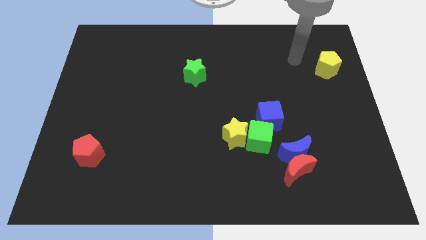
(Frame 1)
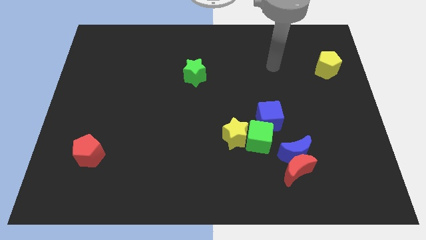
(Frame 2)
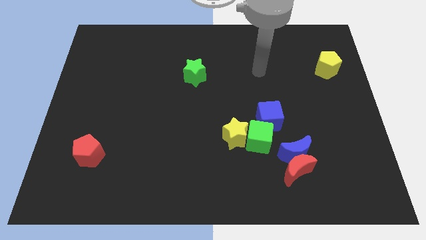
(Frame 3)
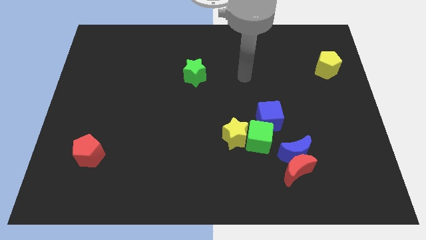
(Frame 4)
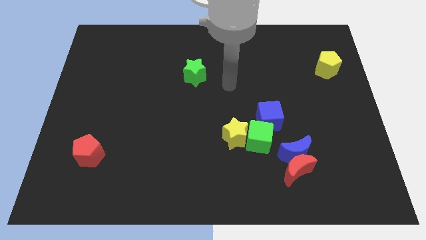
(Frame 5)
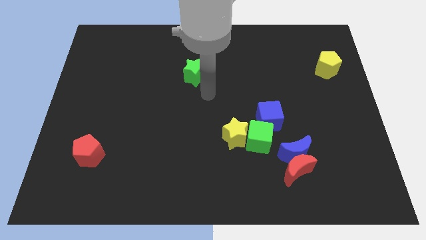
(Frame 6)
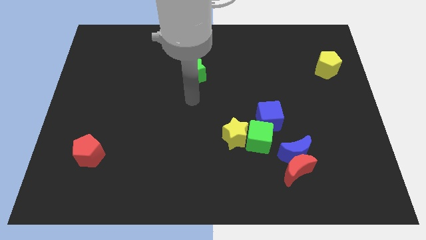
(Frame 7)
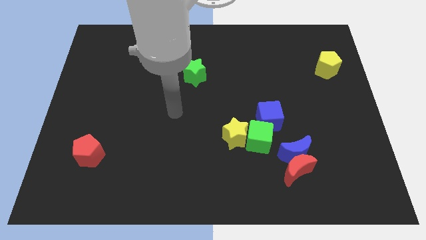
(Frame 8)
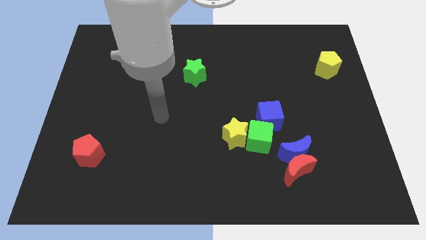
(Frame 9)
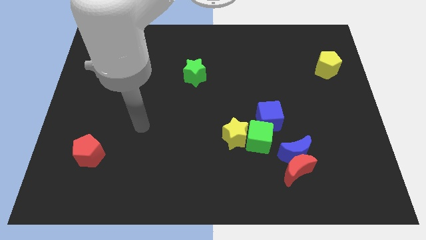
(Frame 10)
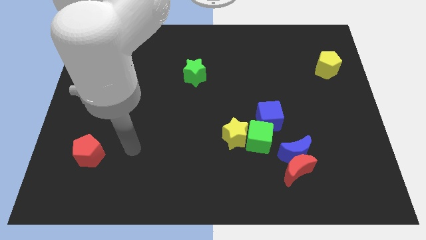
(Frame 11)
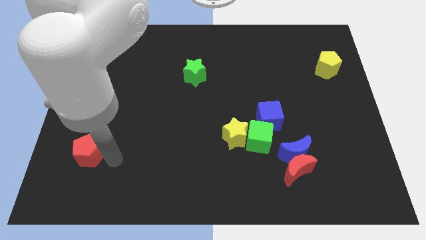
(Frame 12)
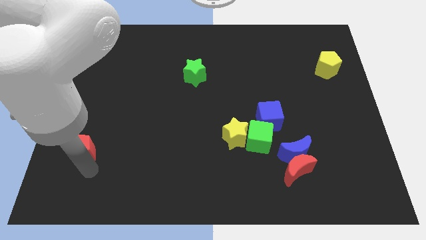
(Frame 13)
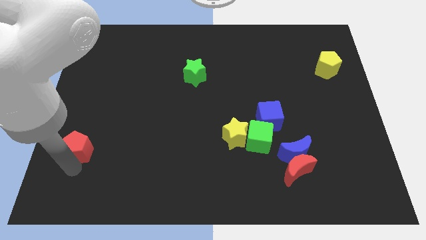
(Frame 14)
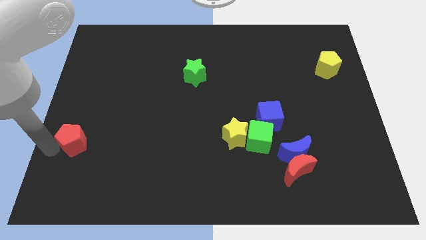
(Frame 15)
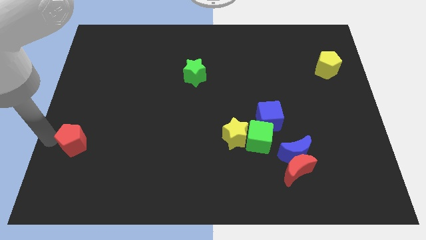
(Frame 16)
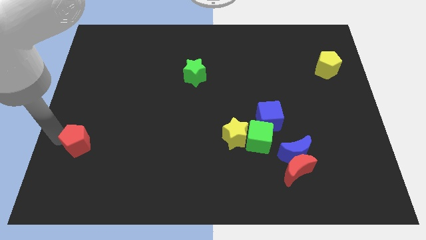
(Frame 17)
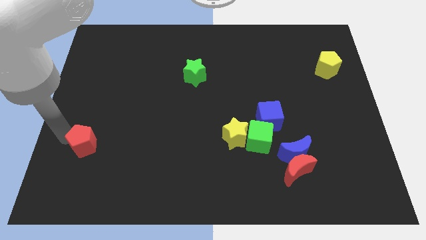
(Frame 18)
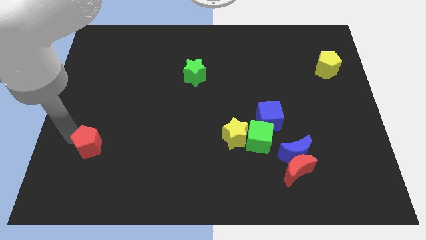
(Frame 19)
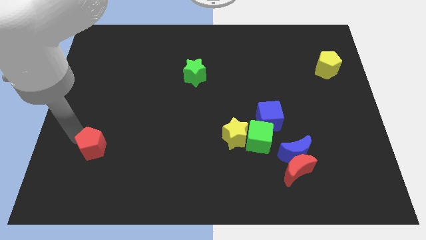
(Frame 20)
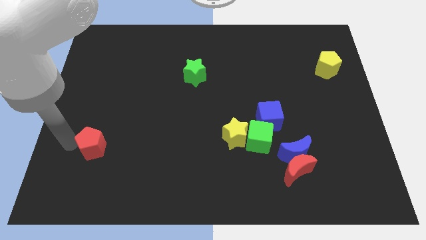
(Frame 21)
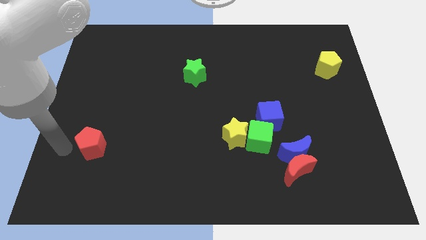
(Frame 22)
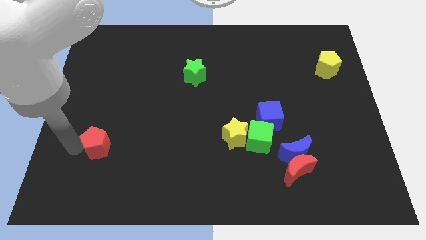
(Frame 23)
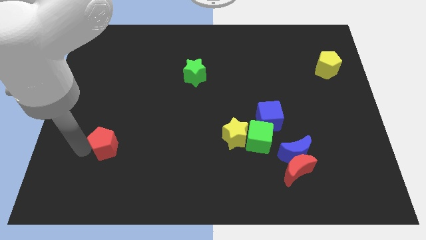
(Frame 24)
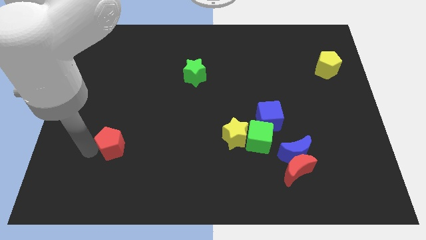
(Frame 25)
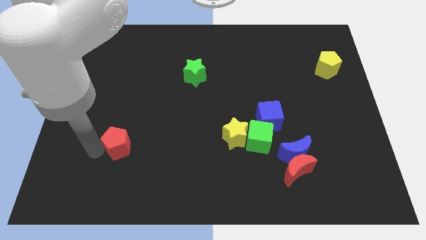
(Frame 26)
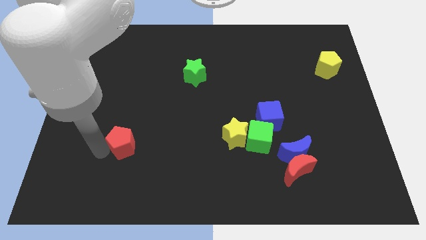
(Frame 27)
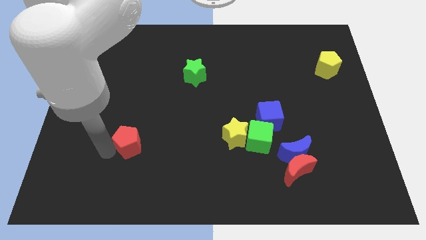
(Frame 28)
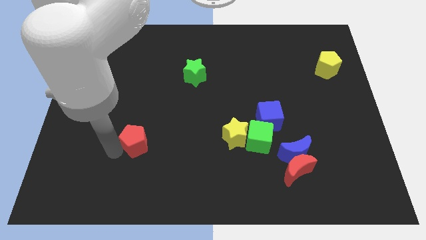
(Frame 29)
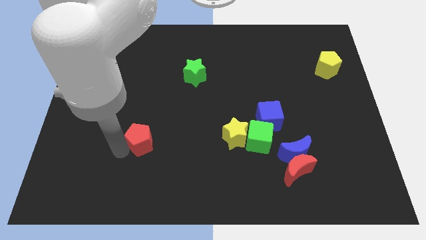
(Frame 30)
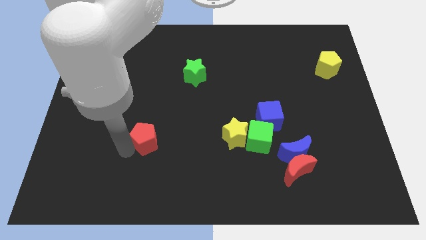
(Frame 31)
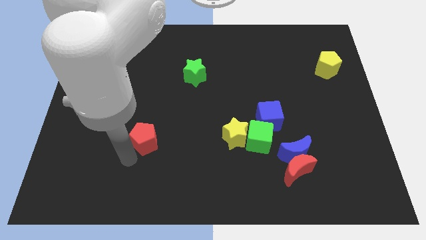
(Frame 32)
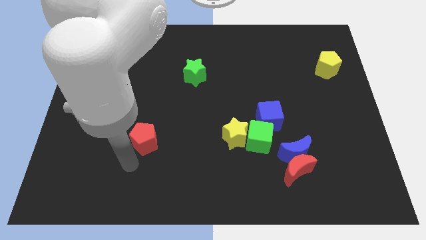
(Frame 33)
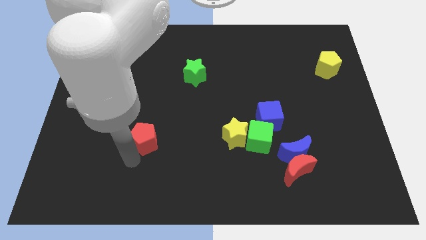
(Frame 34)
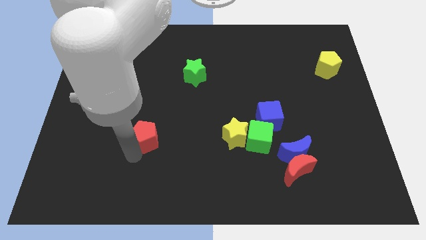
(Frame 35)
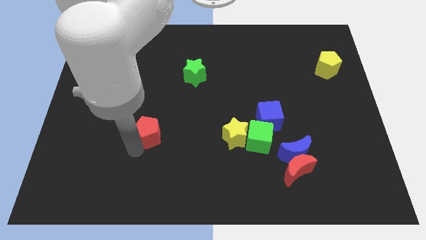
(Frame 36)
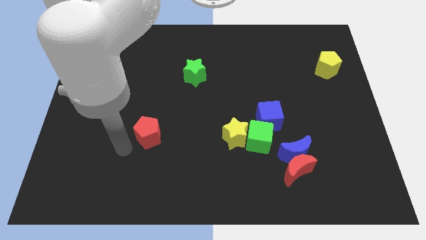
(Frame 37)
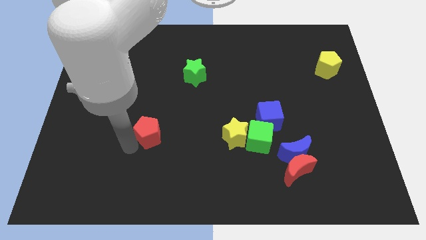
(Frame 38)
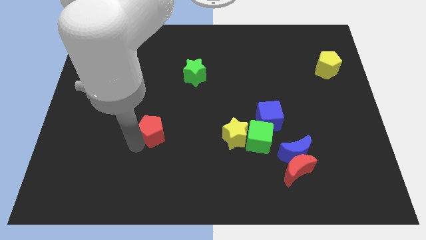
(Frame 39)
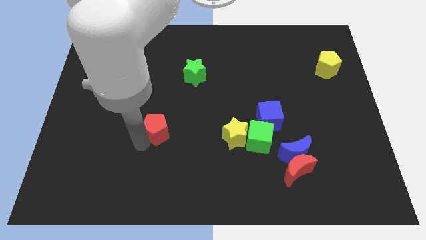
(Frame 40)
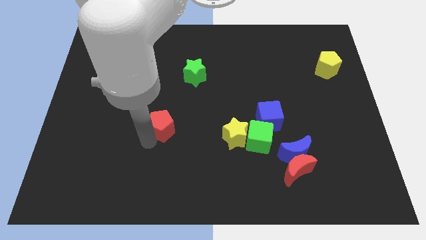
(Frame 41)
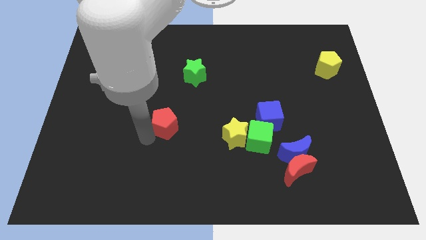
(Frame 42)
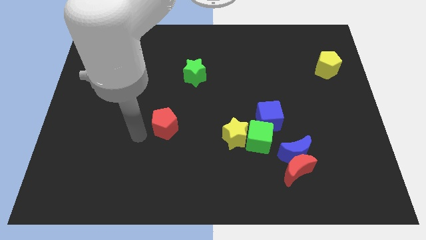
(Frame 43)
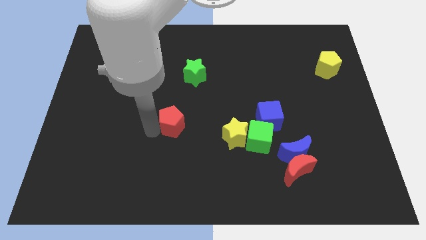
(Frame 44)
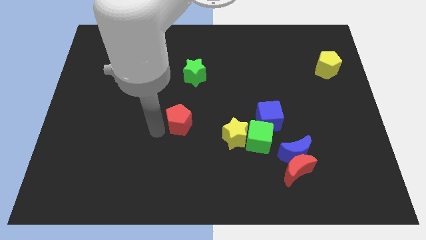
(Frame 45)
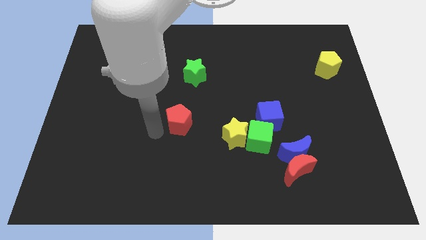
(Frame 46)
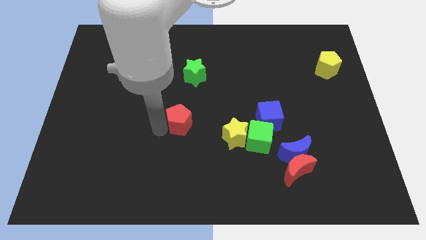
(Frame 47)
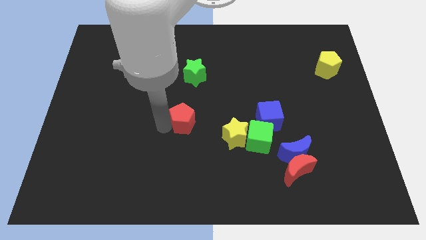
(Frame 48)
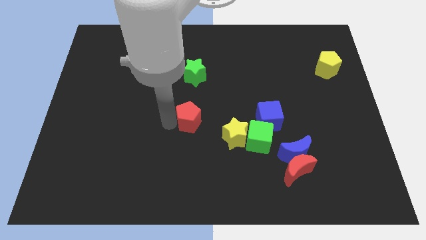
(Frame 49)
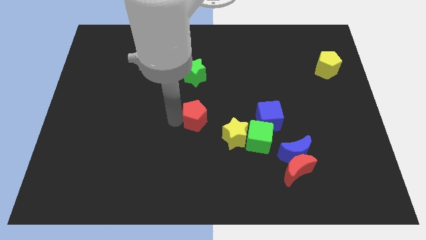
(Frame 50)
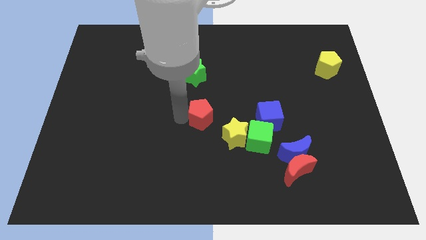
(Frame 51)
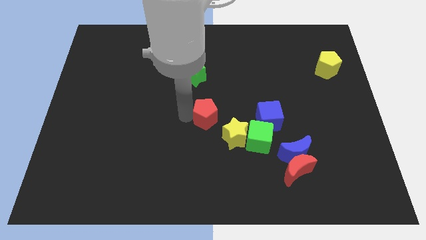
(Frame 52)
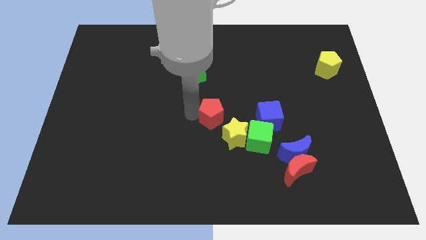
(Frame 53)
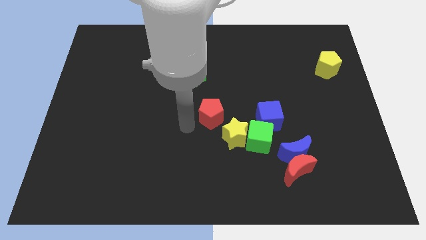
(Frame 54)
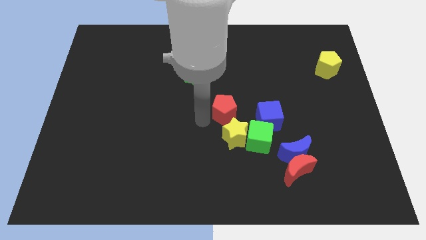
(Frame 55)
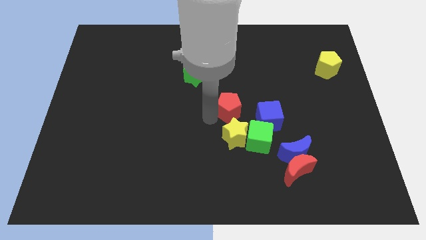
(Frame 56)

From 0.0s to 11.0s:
move the red pentagon to the top left side of the blue cube

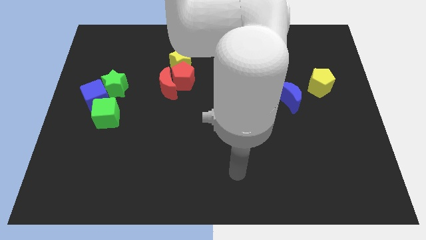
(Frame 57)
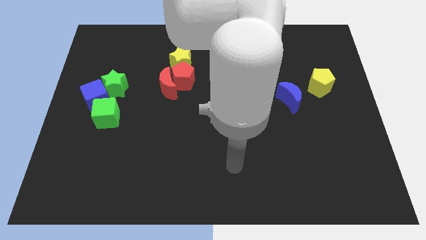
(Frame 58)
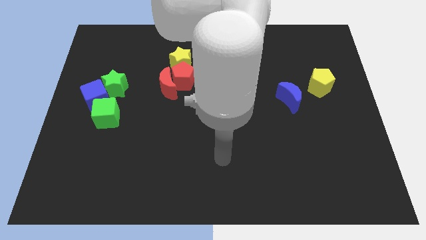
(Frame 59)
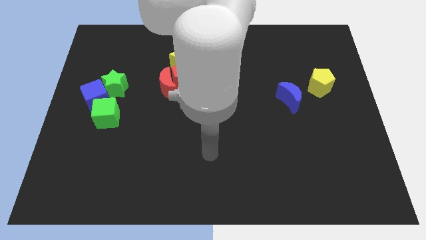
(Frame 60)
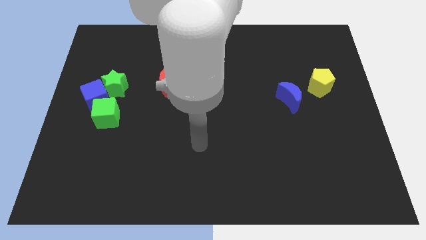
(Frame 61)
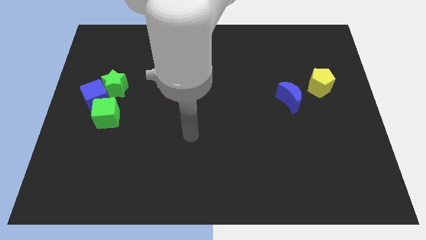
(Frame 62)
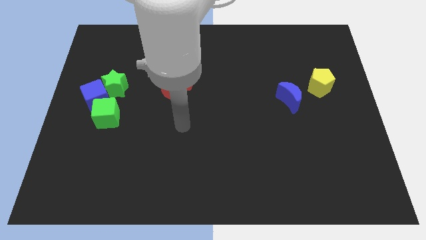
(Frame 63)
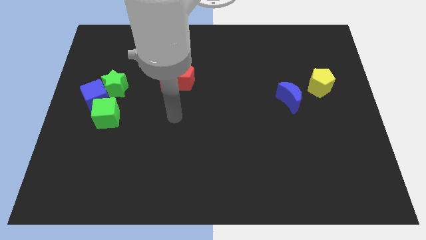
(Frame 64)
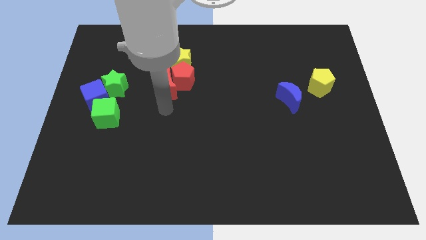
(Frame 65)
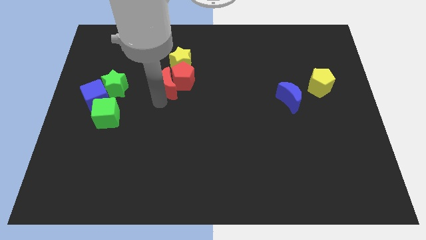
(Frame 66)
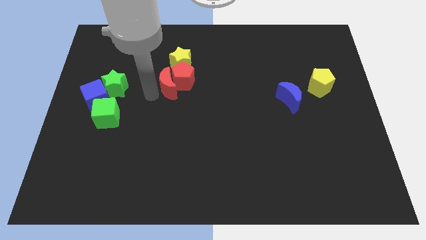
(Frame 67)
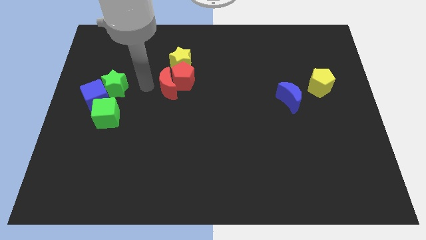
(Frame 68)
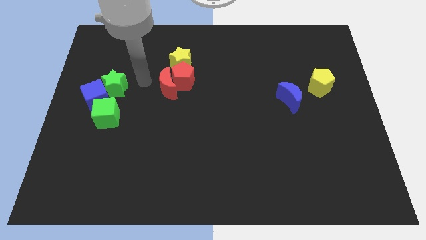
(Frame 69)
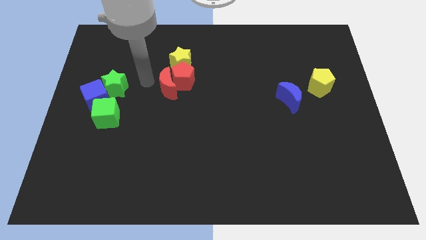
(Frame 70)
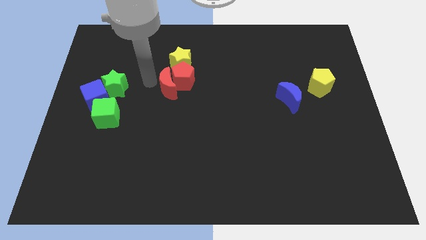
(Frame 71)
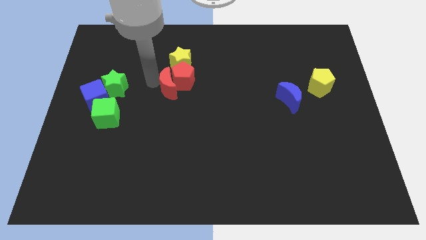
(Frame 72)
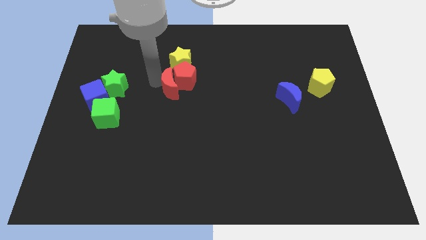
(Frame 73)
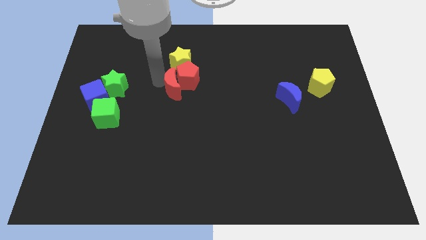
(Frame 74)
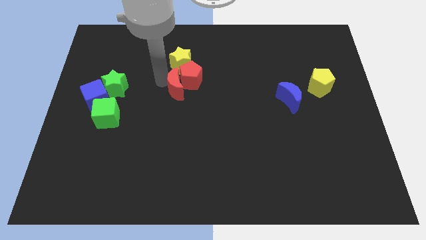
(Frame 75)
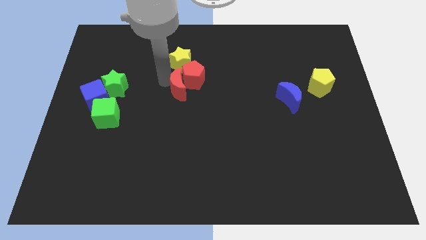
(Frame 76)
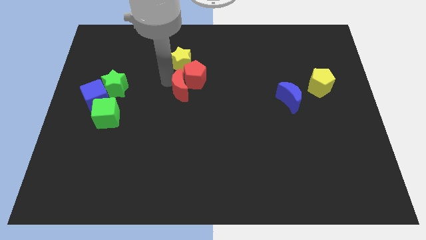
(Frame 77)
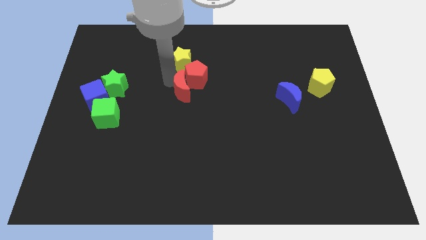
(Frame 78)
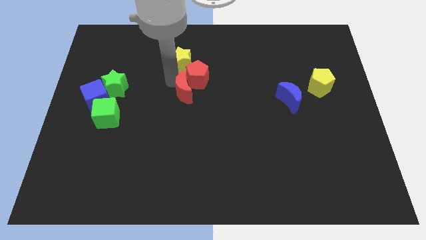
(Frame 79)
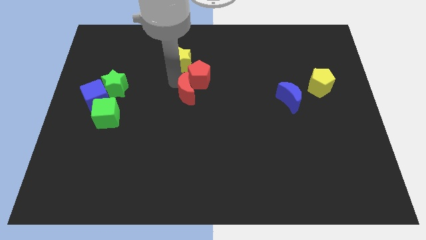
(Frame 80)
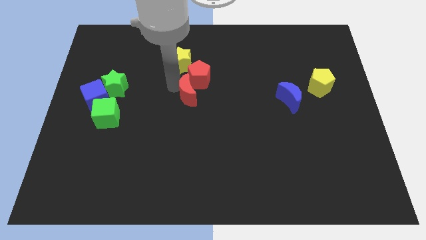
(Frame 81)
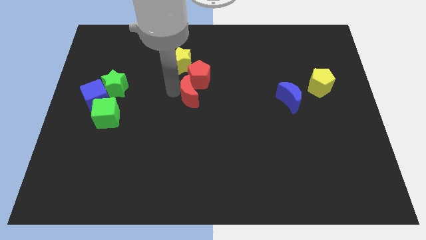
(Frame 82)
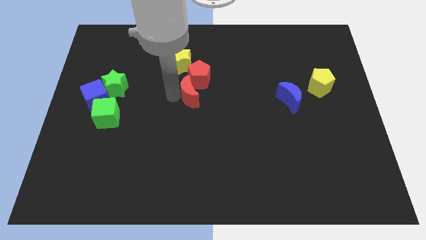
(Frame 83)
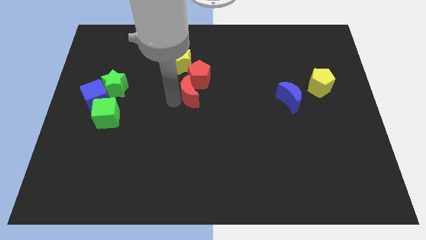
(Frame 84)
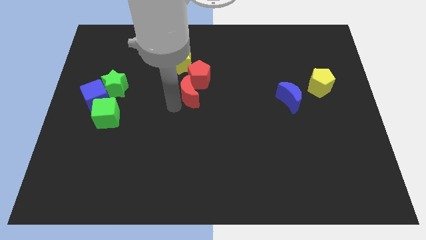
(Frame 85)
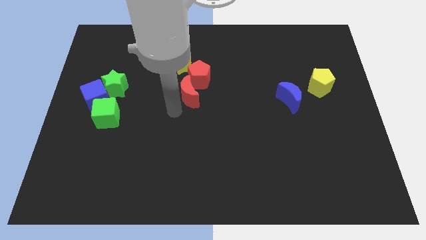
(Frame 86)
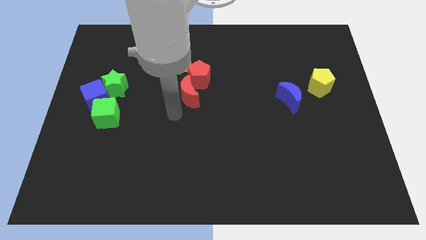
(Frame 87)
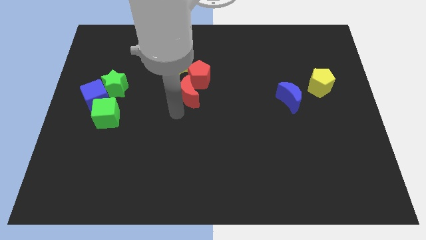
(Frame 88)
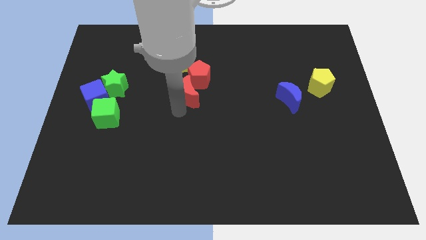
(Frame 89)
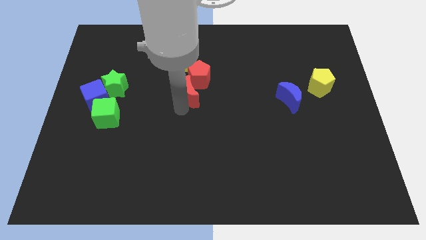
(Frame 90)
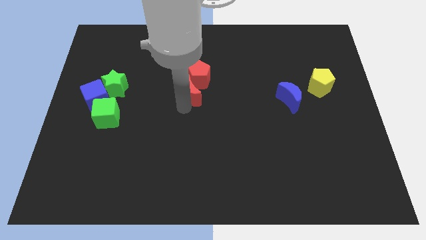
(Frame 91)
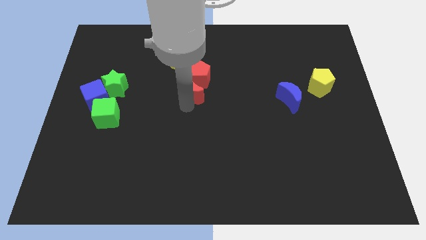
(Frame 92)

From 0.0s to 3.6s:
move the red moon diagonally down and to the right of the yellow star
